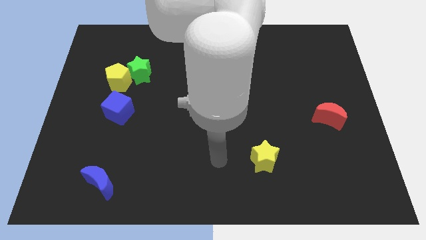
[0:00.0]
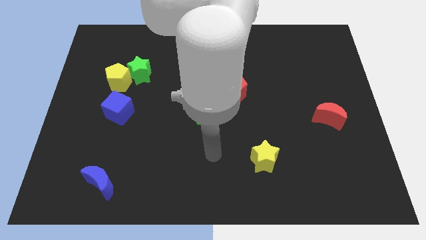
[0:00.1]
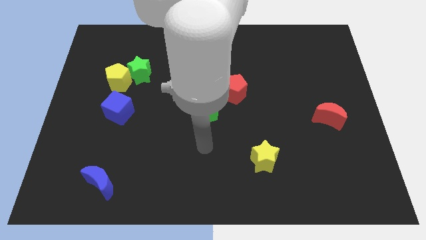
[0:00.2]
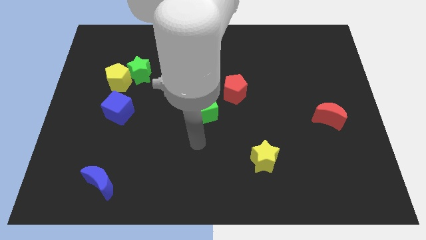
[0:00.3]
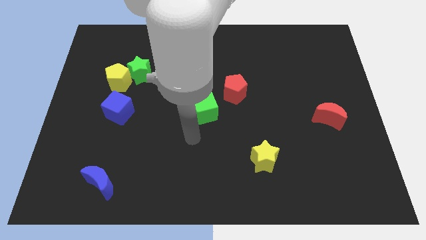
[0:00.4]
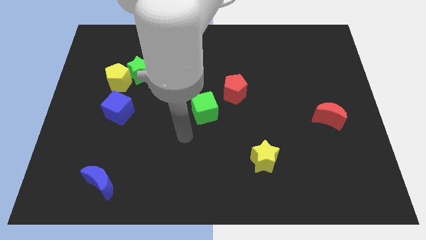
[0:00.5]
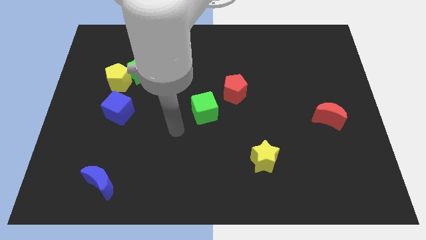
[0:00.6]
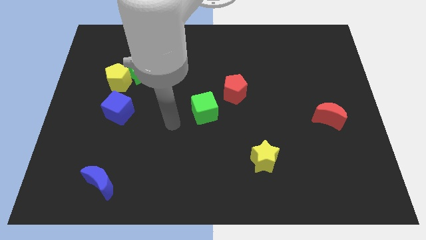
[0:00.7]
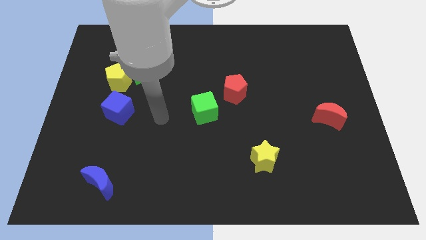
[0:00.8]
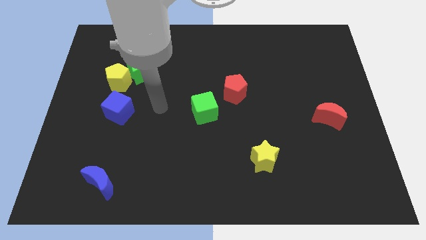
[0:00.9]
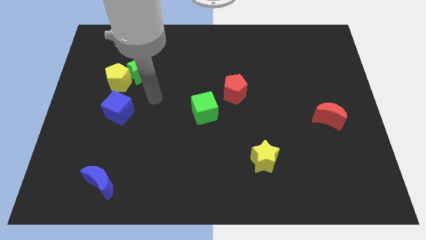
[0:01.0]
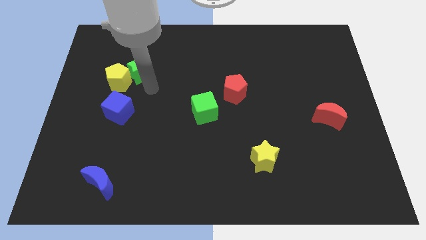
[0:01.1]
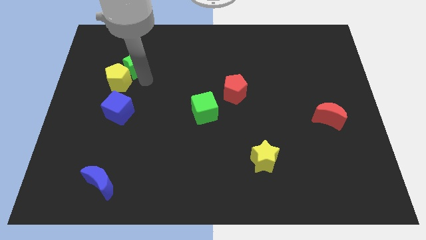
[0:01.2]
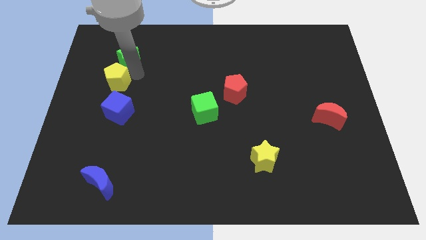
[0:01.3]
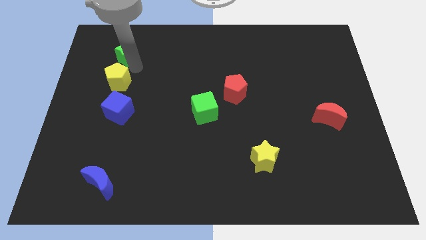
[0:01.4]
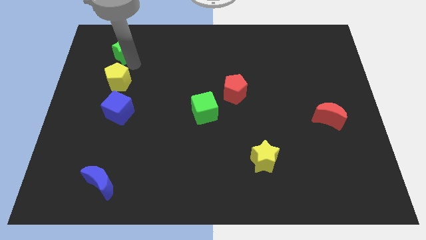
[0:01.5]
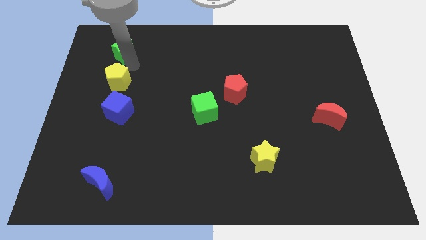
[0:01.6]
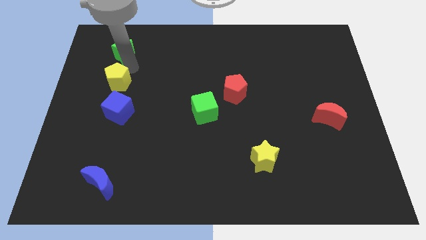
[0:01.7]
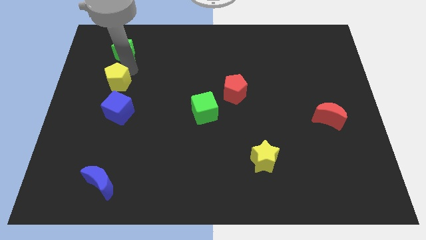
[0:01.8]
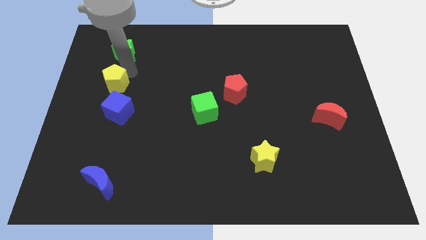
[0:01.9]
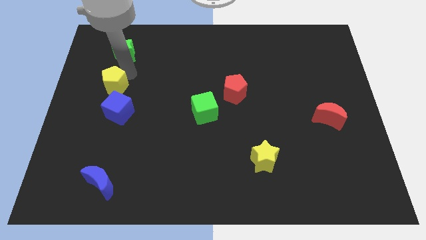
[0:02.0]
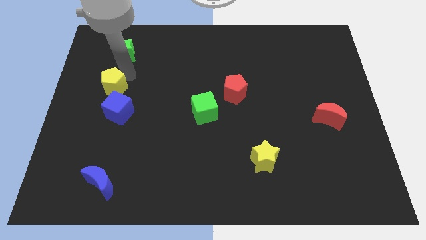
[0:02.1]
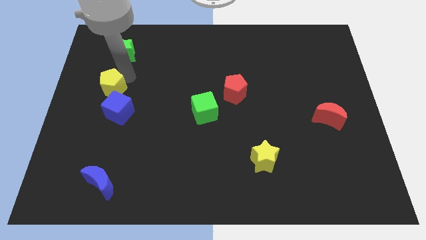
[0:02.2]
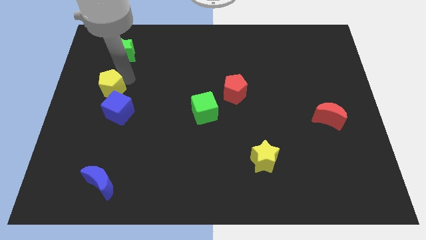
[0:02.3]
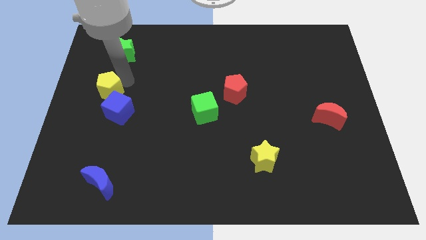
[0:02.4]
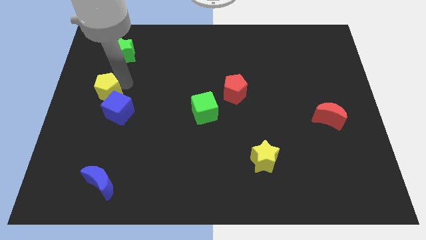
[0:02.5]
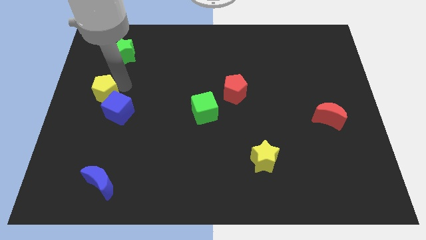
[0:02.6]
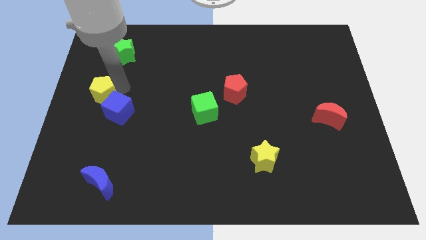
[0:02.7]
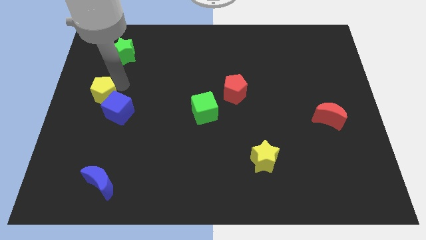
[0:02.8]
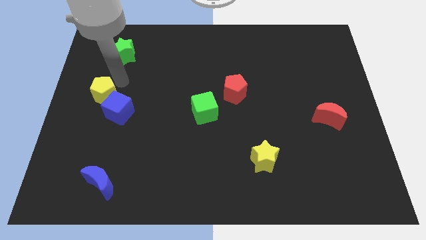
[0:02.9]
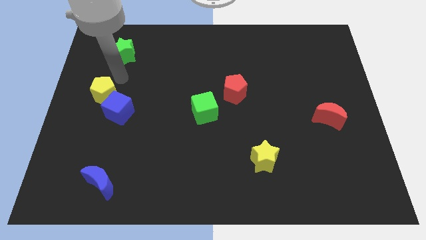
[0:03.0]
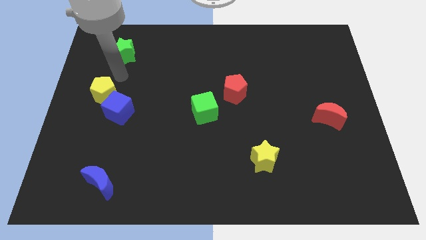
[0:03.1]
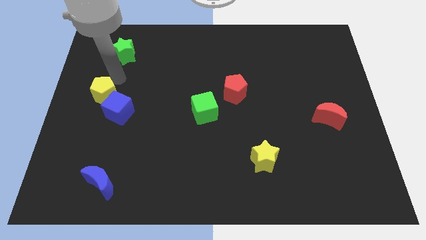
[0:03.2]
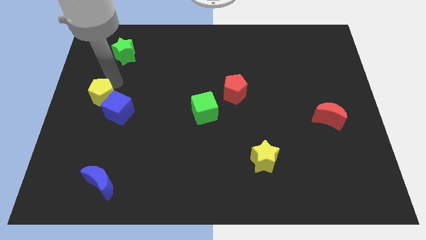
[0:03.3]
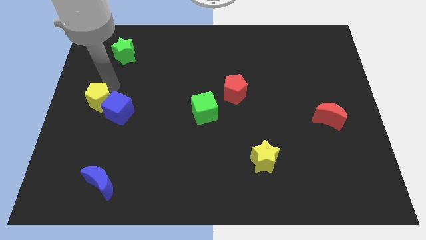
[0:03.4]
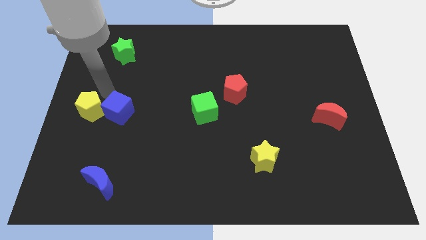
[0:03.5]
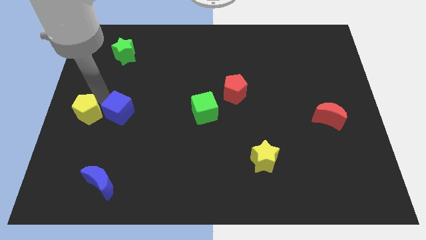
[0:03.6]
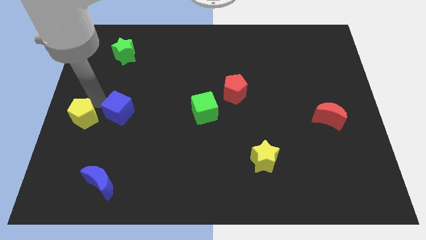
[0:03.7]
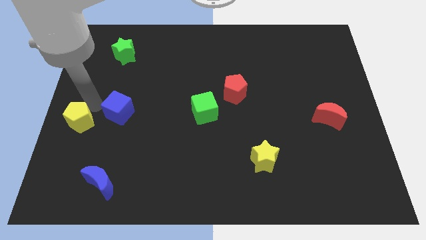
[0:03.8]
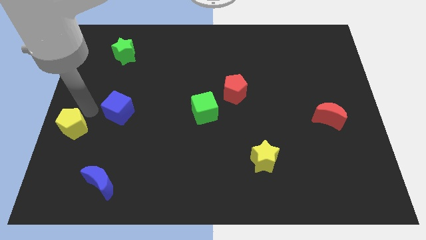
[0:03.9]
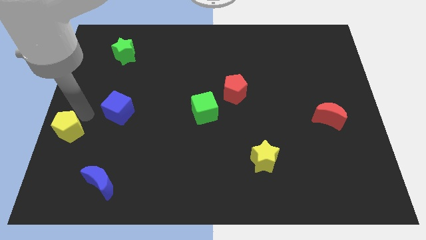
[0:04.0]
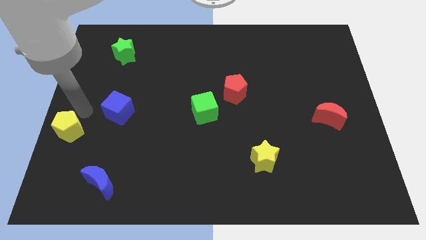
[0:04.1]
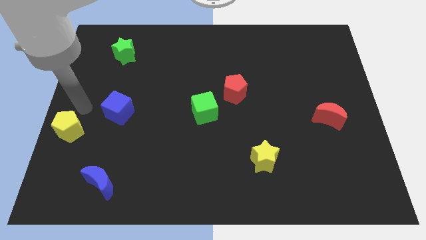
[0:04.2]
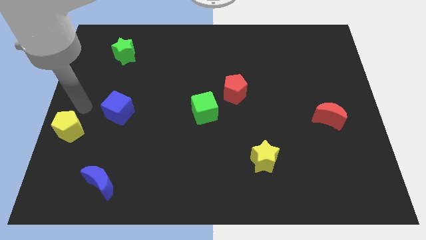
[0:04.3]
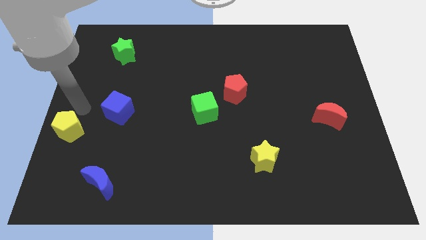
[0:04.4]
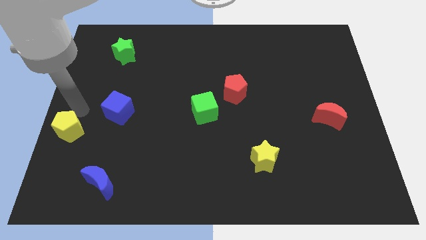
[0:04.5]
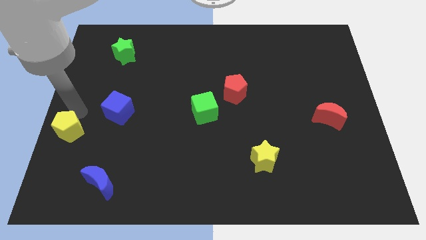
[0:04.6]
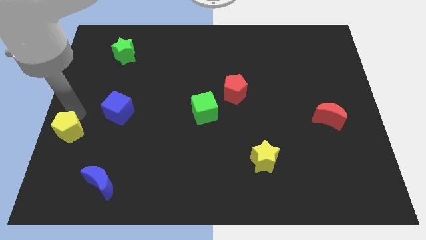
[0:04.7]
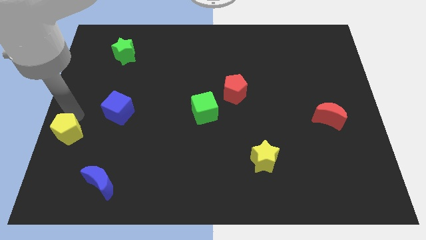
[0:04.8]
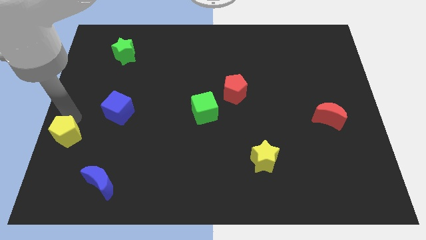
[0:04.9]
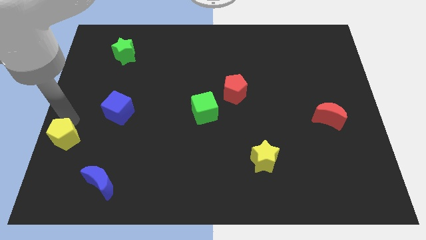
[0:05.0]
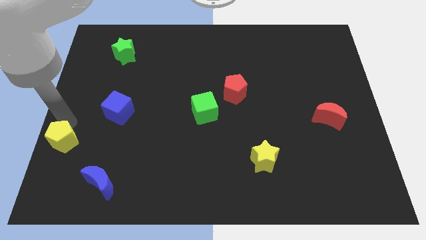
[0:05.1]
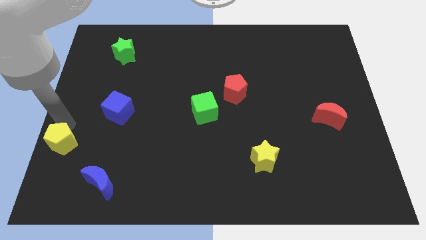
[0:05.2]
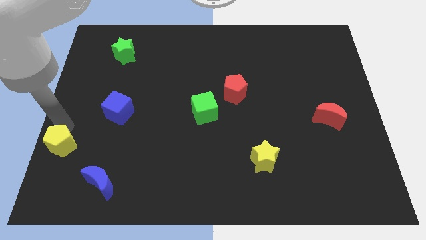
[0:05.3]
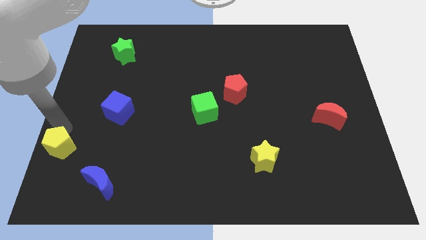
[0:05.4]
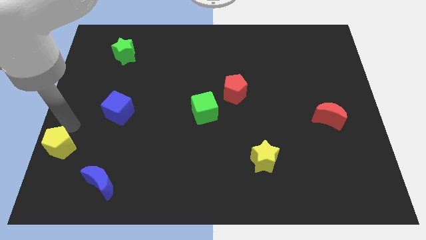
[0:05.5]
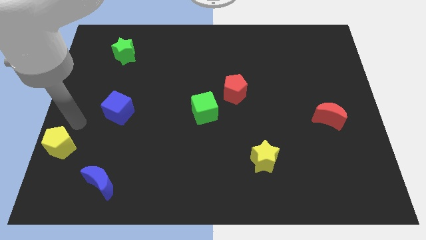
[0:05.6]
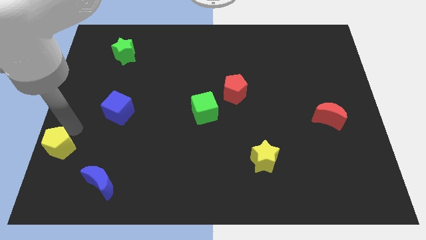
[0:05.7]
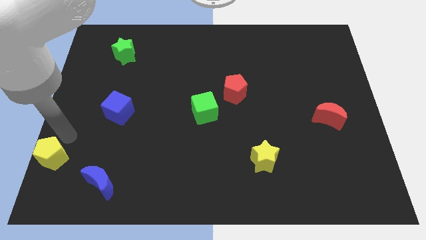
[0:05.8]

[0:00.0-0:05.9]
move the yellow pentagon to the lower left corner

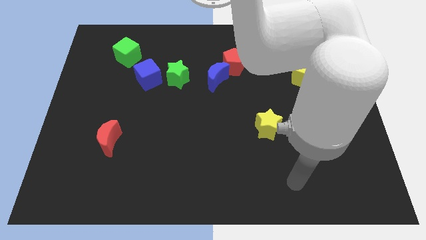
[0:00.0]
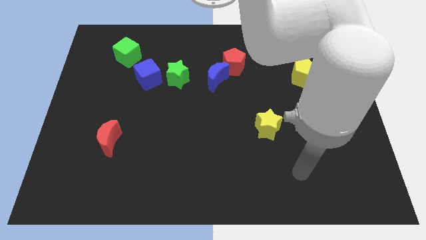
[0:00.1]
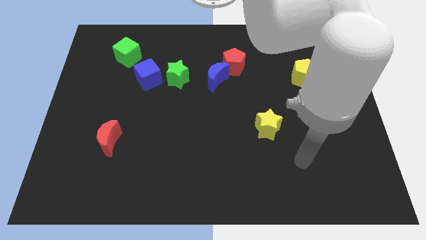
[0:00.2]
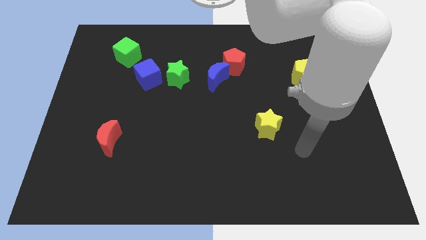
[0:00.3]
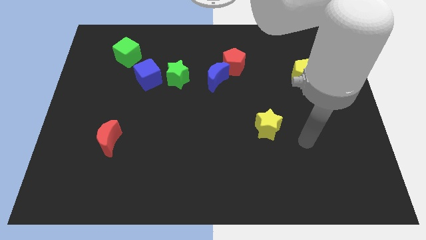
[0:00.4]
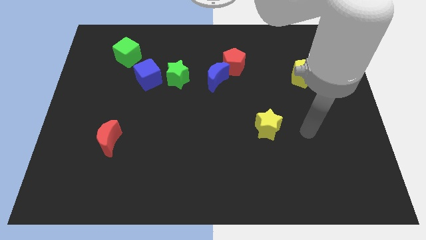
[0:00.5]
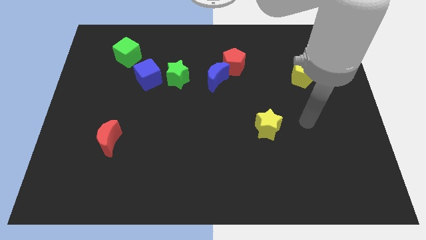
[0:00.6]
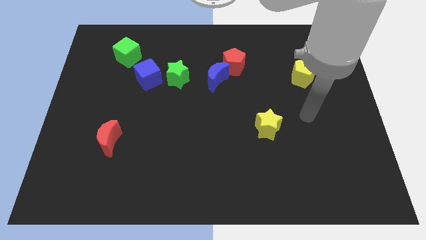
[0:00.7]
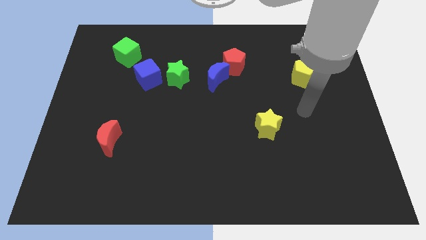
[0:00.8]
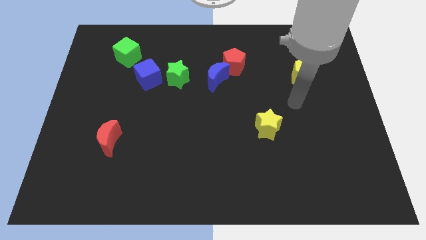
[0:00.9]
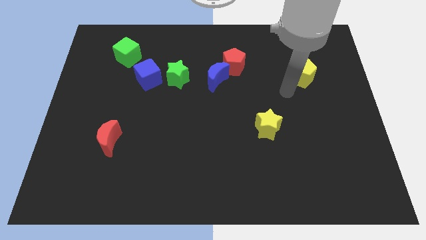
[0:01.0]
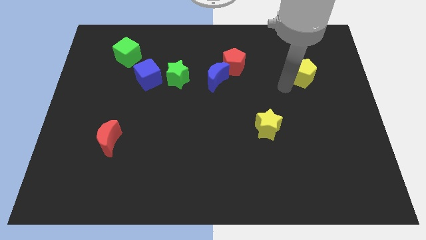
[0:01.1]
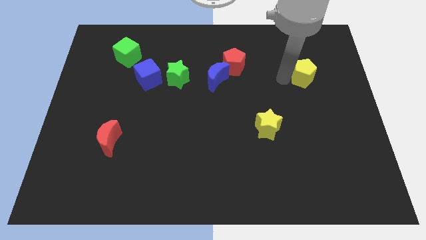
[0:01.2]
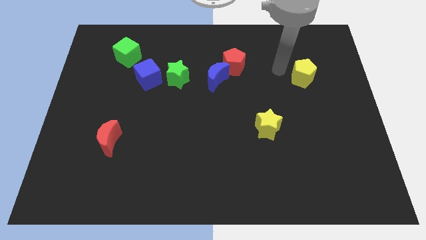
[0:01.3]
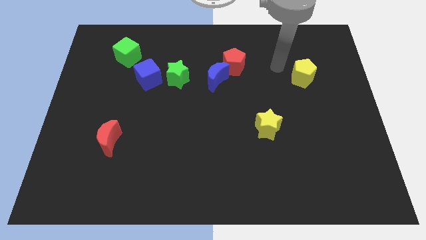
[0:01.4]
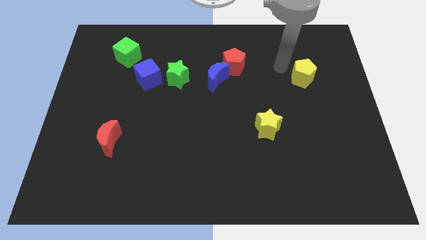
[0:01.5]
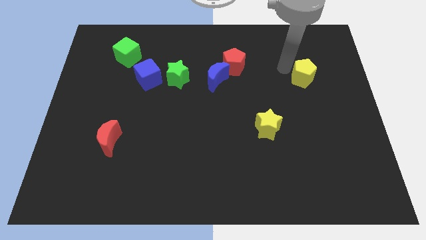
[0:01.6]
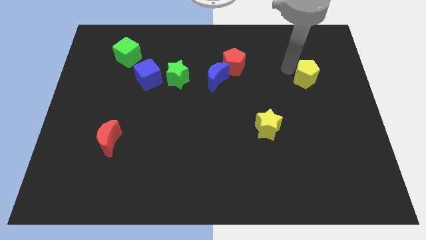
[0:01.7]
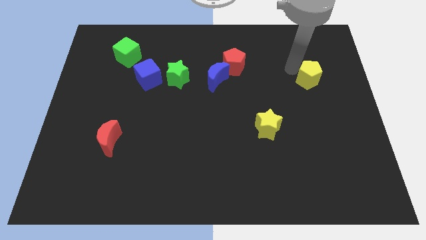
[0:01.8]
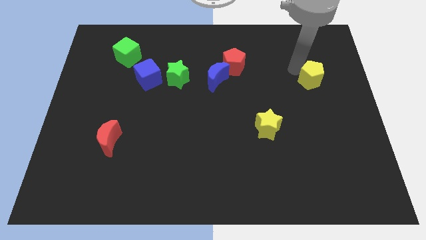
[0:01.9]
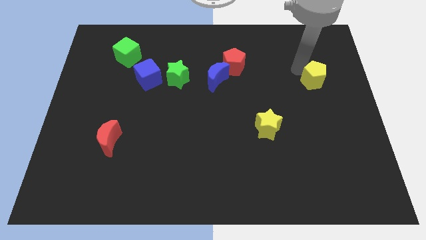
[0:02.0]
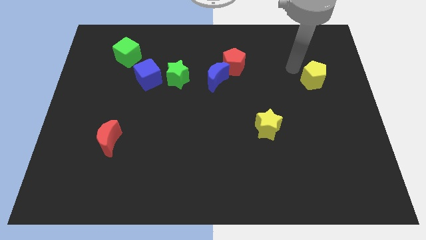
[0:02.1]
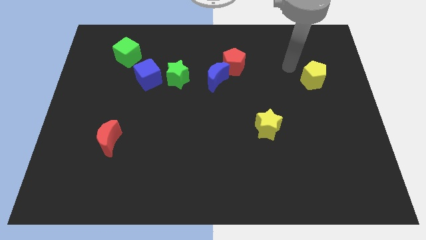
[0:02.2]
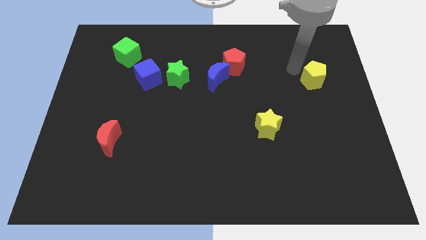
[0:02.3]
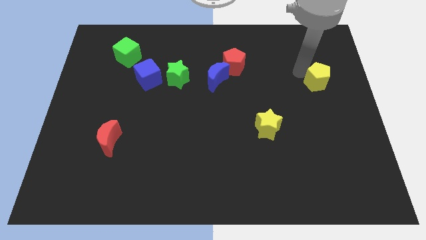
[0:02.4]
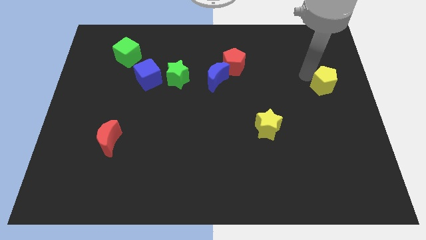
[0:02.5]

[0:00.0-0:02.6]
push the yellow pentagon to the right side
